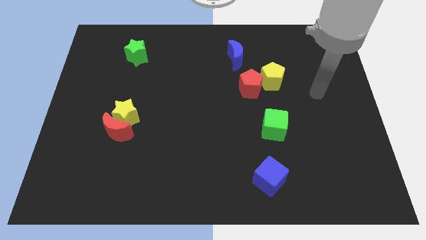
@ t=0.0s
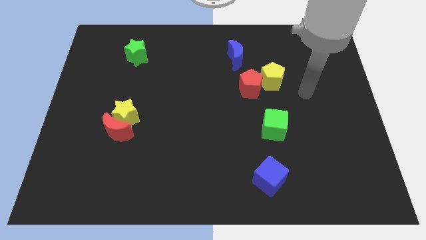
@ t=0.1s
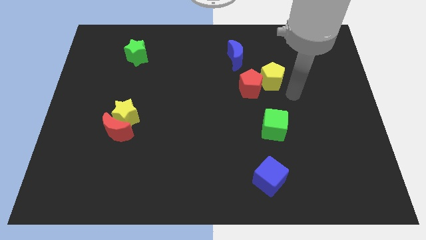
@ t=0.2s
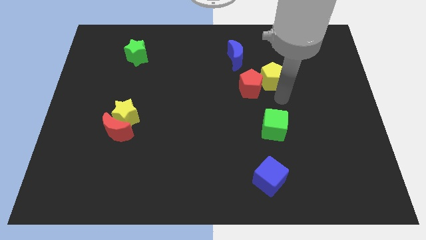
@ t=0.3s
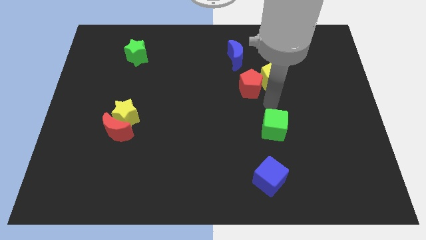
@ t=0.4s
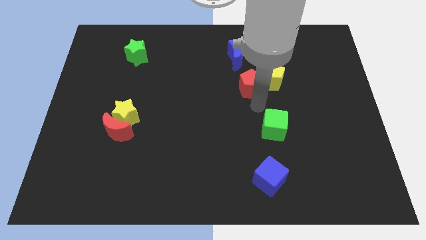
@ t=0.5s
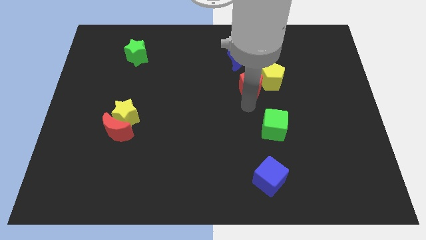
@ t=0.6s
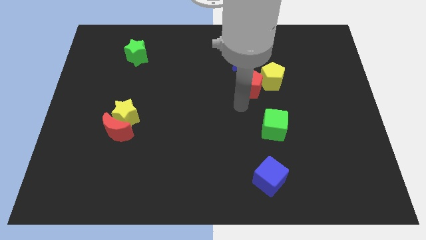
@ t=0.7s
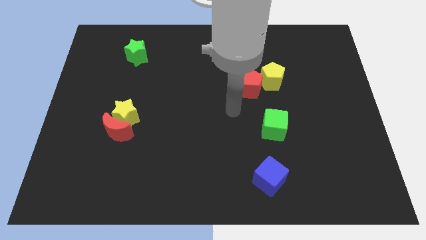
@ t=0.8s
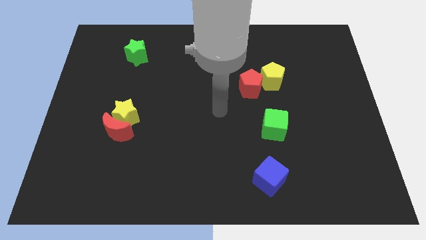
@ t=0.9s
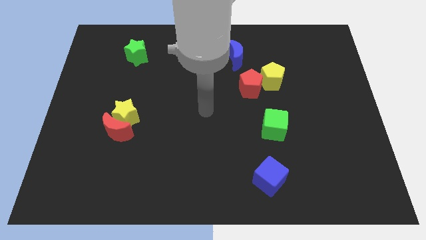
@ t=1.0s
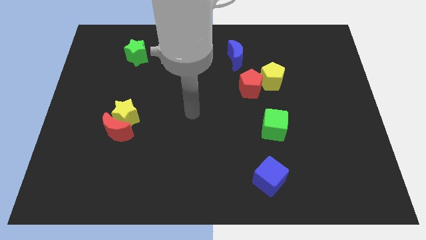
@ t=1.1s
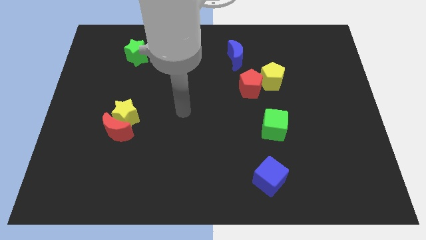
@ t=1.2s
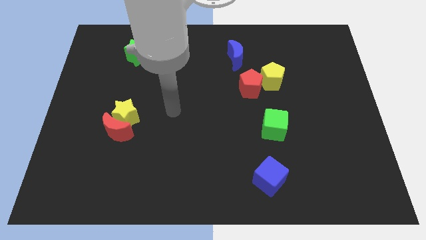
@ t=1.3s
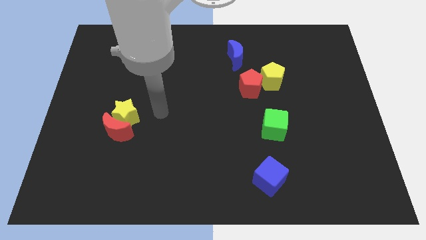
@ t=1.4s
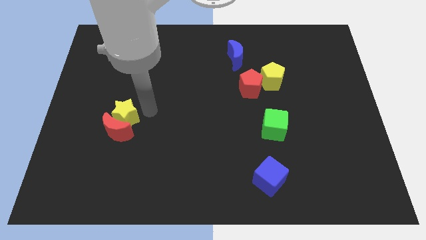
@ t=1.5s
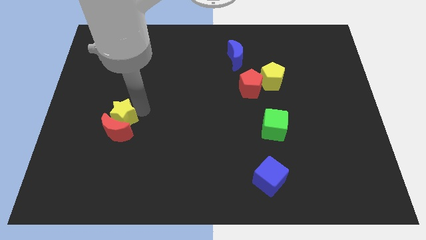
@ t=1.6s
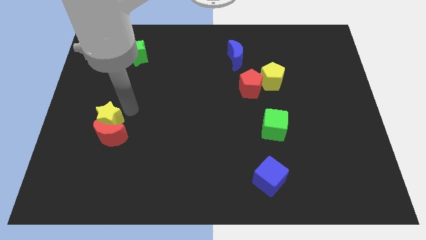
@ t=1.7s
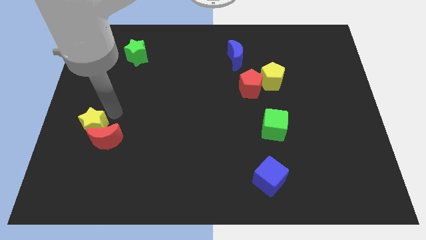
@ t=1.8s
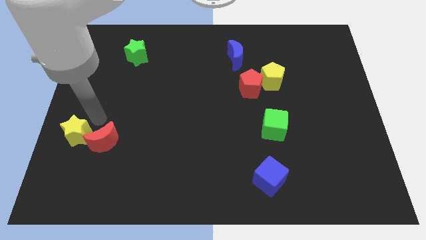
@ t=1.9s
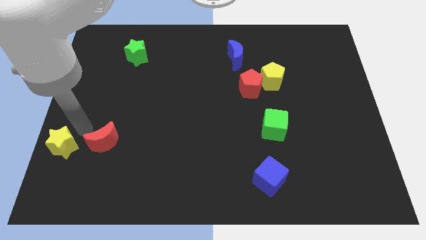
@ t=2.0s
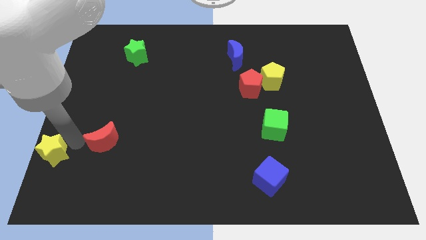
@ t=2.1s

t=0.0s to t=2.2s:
move the red moon away from the yellow star

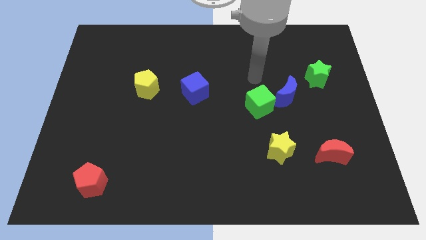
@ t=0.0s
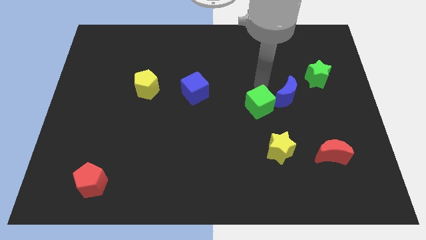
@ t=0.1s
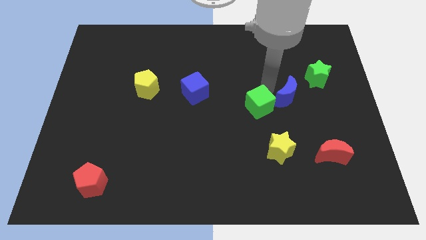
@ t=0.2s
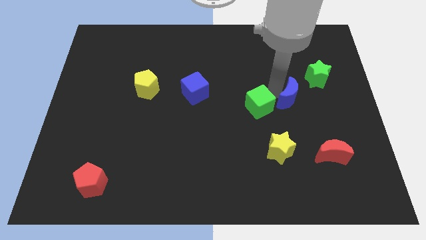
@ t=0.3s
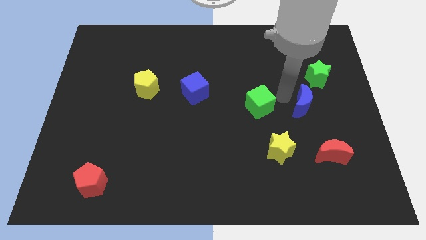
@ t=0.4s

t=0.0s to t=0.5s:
move the green cube away from the blue moon

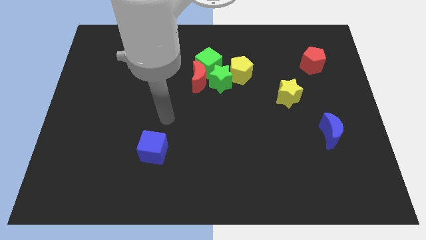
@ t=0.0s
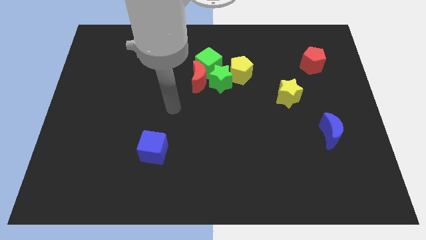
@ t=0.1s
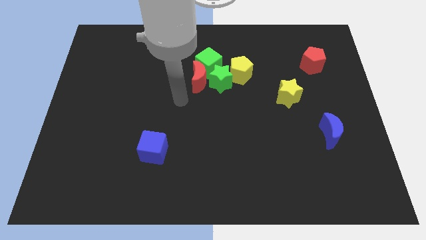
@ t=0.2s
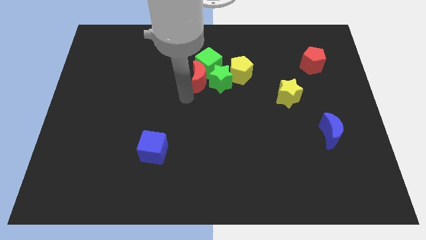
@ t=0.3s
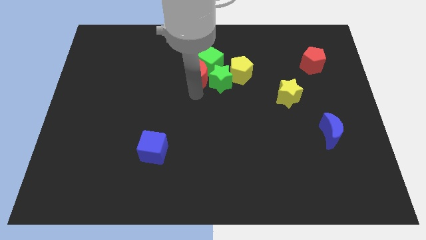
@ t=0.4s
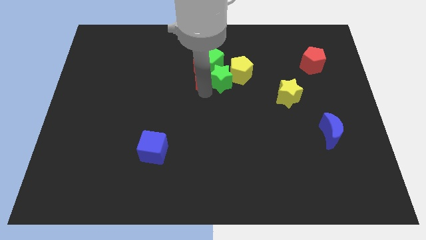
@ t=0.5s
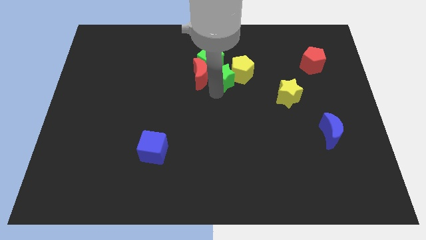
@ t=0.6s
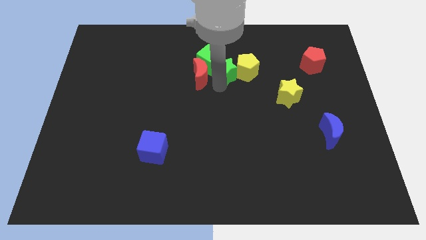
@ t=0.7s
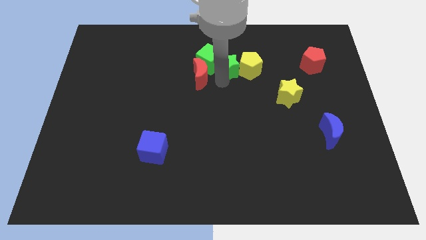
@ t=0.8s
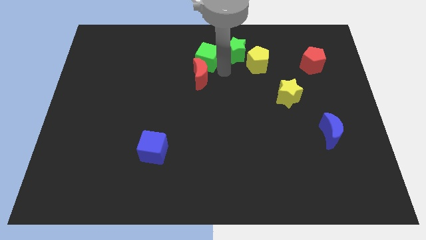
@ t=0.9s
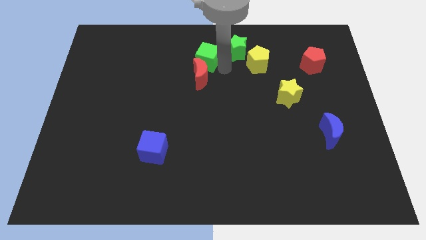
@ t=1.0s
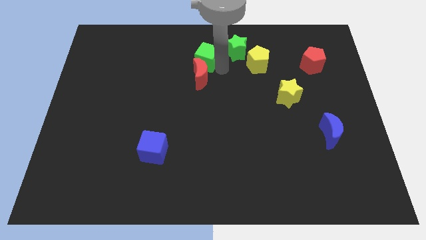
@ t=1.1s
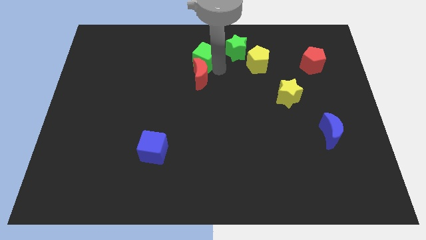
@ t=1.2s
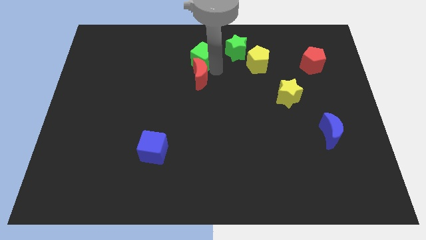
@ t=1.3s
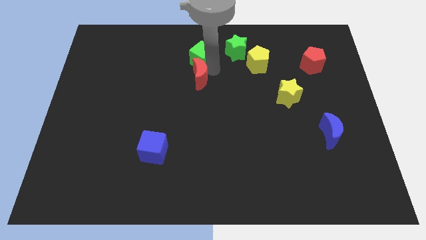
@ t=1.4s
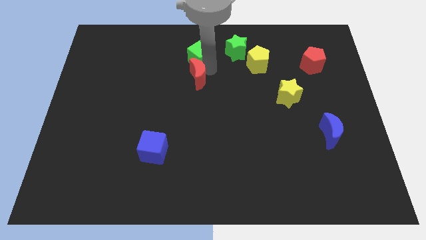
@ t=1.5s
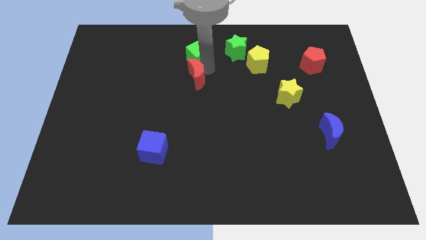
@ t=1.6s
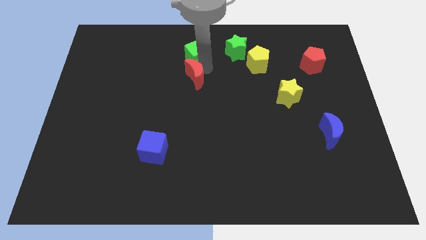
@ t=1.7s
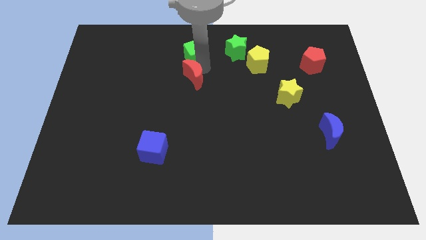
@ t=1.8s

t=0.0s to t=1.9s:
pull the red moon apart from the green star and green cube

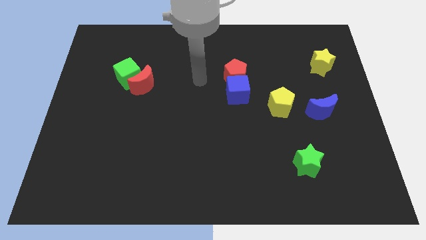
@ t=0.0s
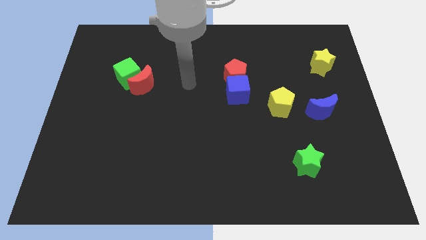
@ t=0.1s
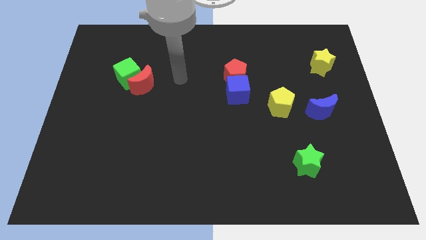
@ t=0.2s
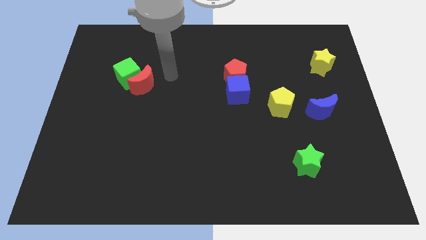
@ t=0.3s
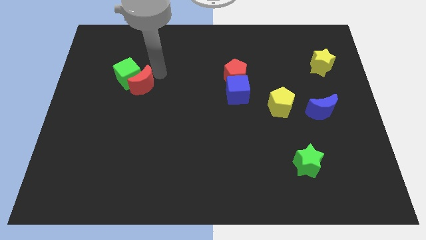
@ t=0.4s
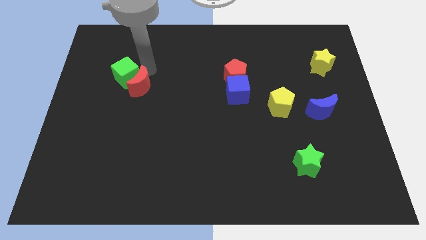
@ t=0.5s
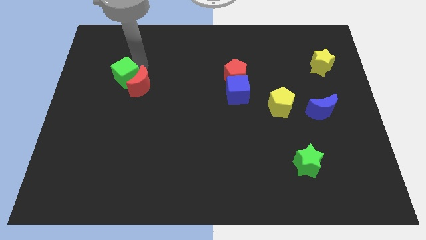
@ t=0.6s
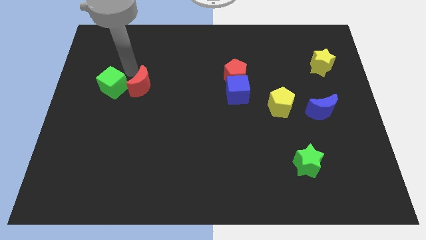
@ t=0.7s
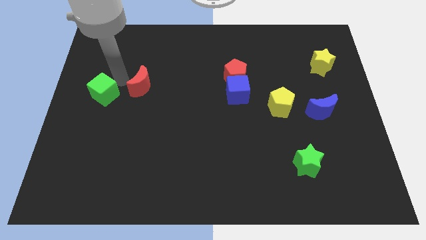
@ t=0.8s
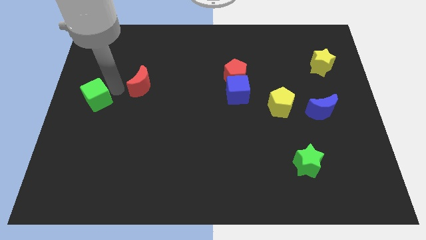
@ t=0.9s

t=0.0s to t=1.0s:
separate the red moon from the green cube

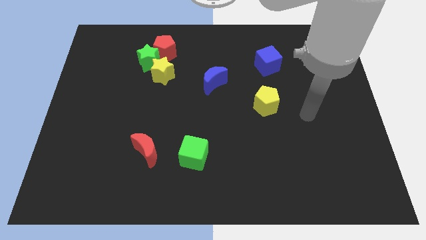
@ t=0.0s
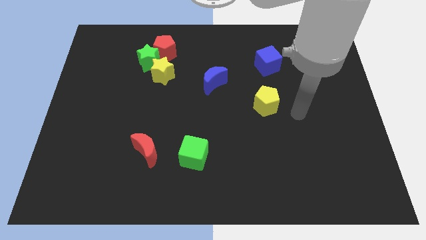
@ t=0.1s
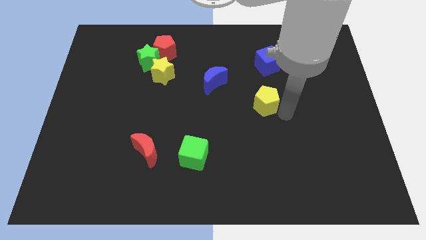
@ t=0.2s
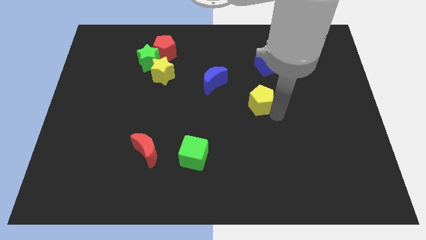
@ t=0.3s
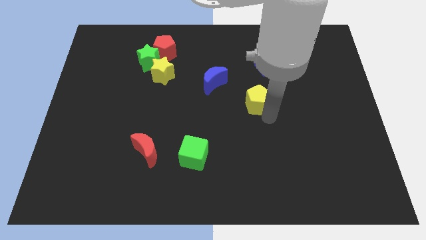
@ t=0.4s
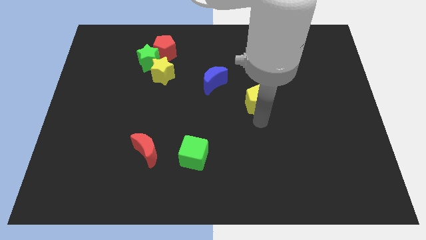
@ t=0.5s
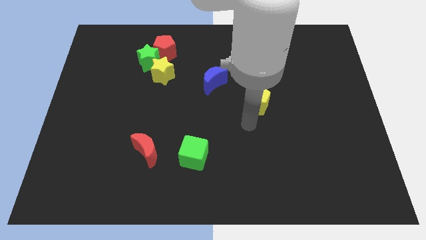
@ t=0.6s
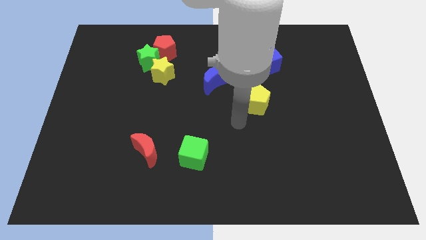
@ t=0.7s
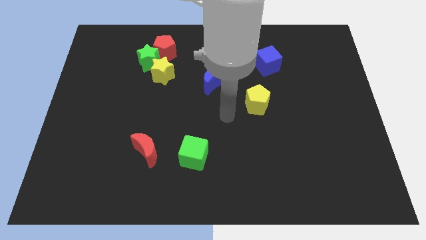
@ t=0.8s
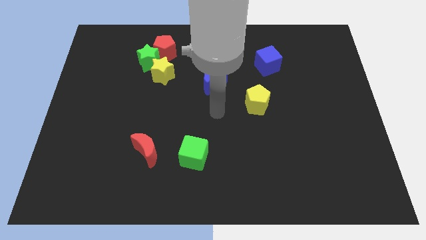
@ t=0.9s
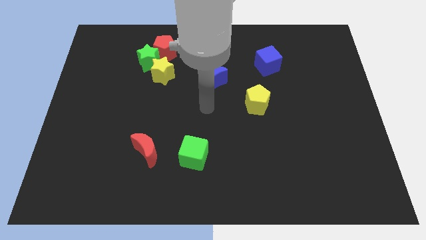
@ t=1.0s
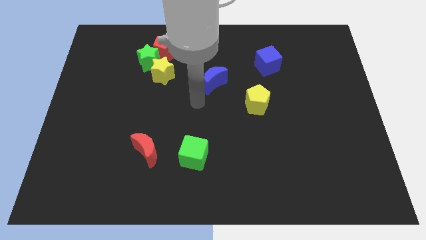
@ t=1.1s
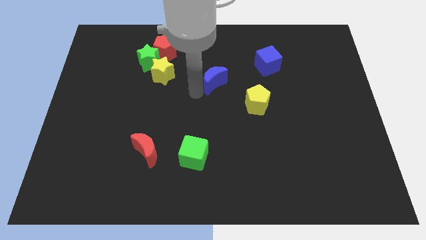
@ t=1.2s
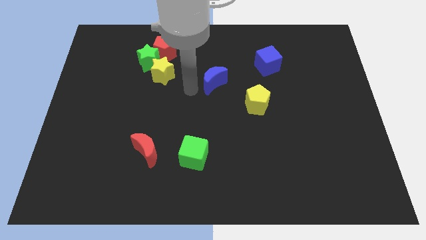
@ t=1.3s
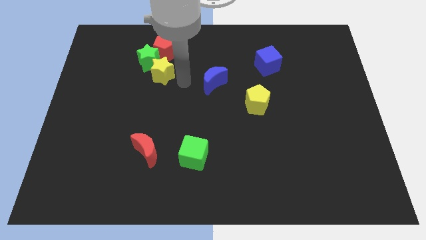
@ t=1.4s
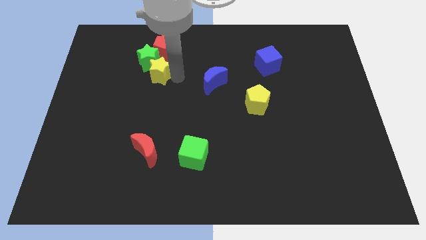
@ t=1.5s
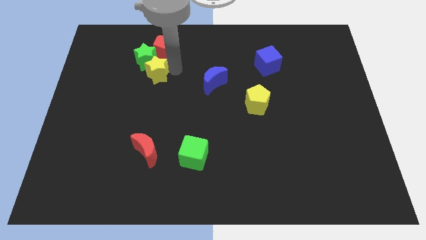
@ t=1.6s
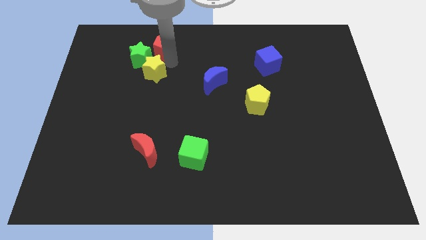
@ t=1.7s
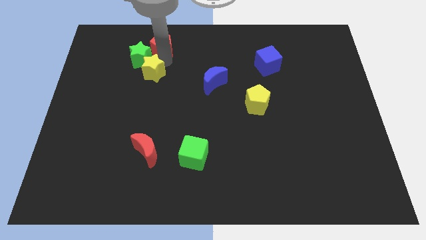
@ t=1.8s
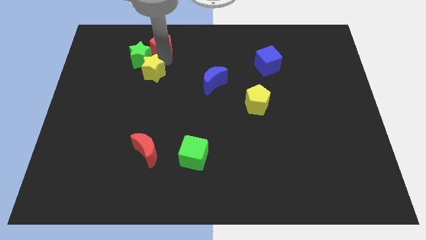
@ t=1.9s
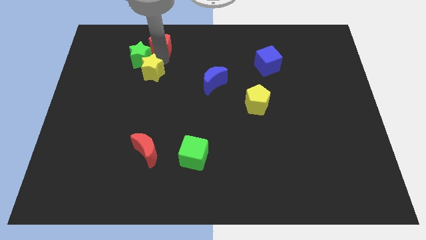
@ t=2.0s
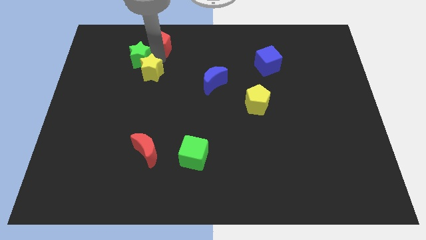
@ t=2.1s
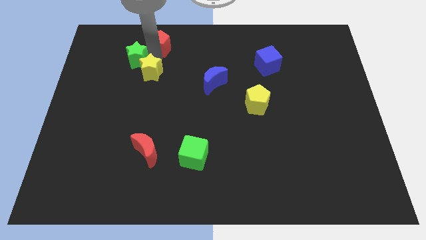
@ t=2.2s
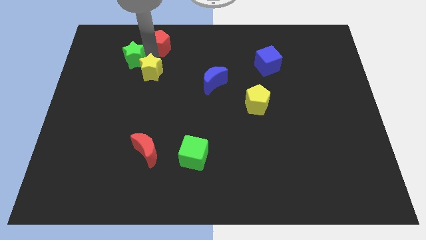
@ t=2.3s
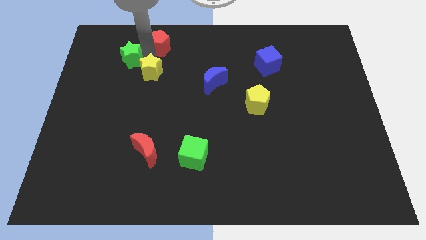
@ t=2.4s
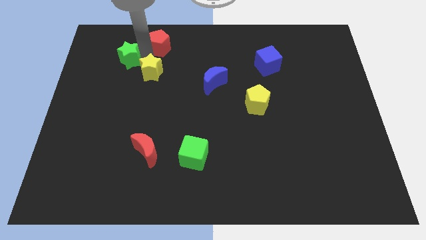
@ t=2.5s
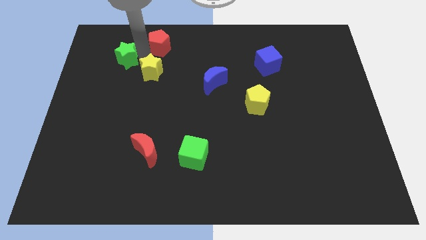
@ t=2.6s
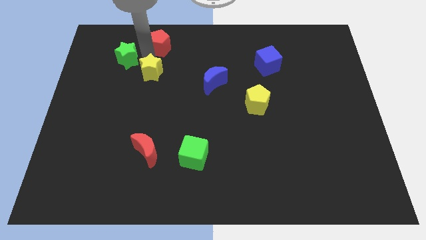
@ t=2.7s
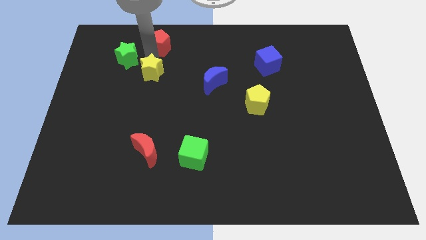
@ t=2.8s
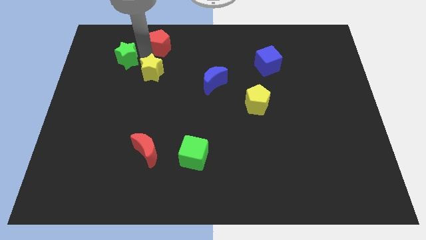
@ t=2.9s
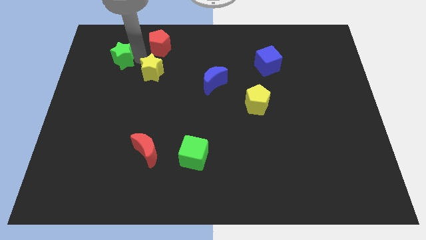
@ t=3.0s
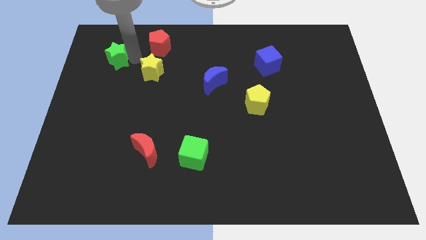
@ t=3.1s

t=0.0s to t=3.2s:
pull the green star apart from the red pentagon and yellow star

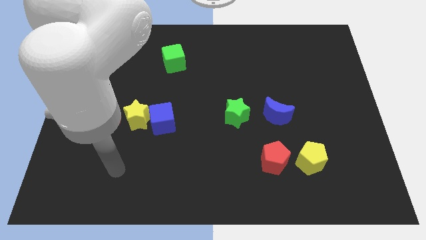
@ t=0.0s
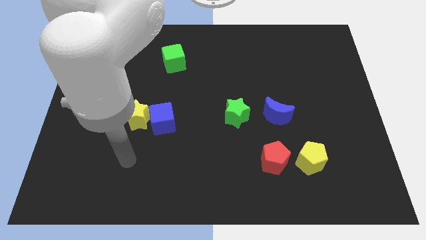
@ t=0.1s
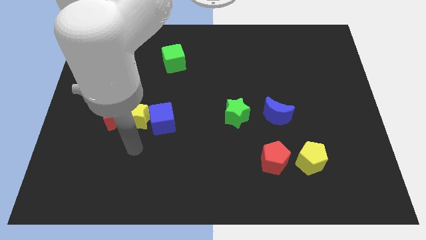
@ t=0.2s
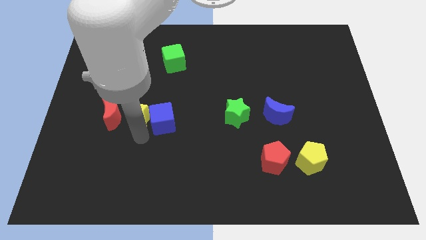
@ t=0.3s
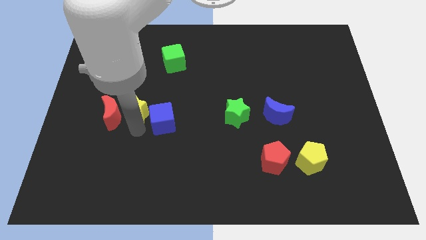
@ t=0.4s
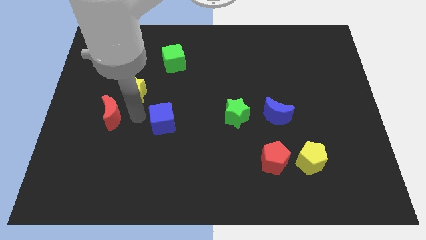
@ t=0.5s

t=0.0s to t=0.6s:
separate the blue cube from the yellow star
